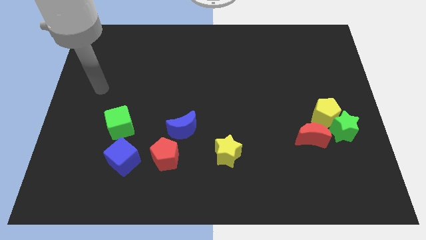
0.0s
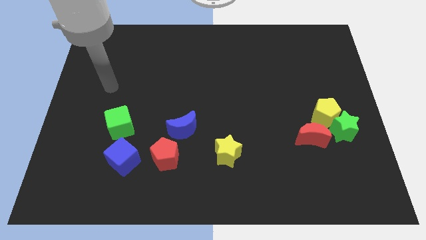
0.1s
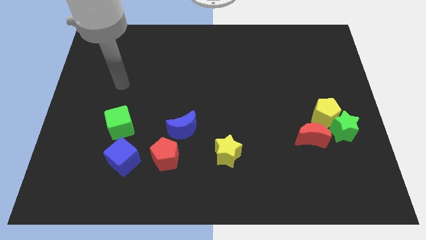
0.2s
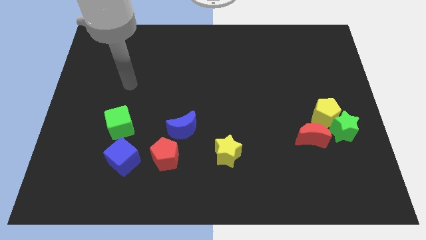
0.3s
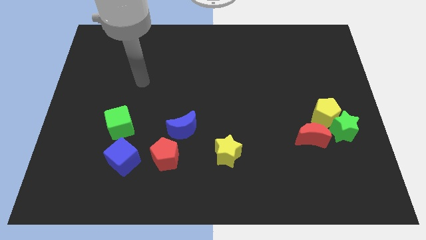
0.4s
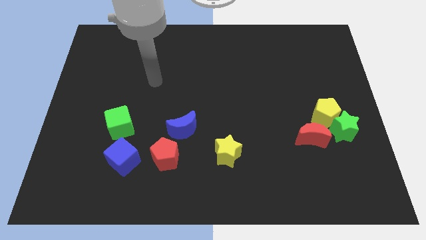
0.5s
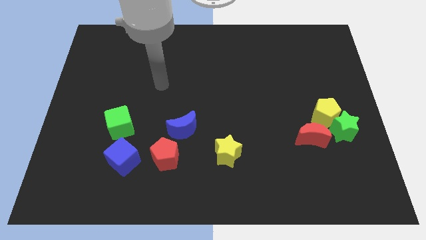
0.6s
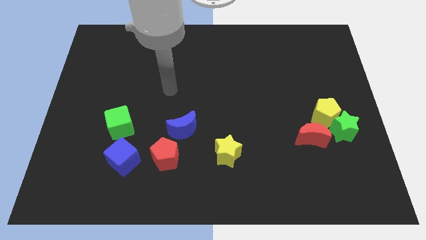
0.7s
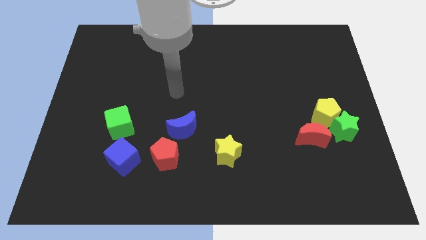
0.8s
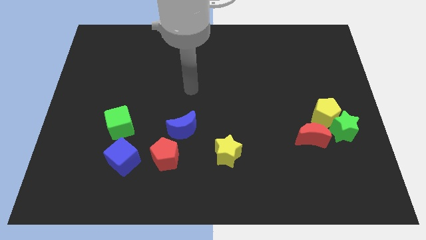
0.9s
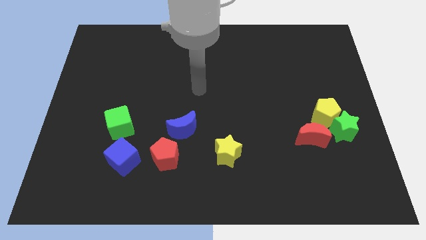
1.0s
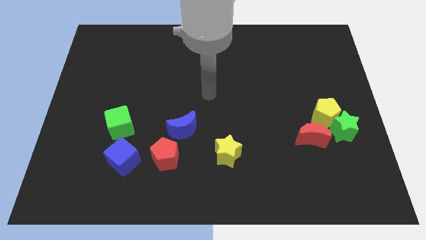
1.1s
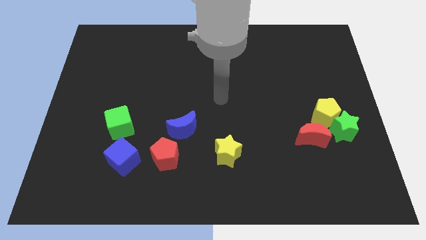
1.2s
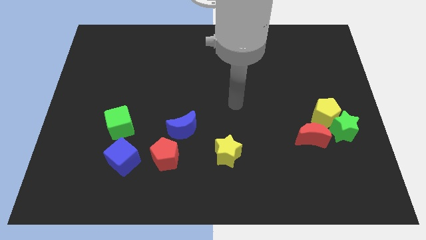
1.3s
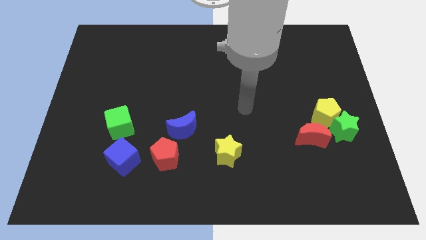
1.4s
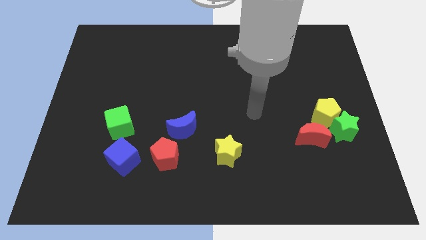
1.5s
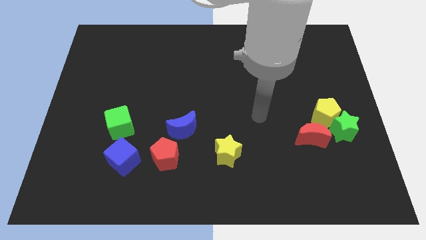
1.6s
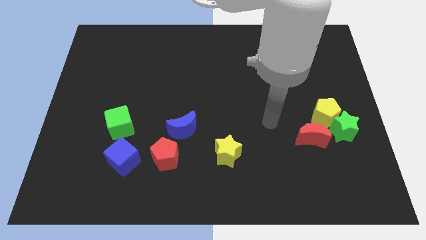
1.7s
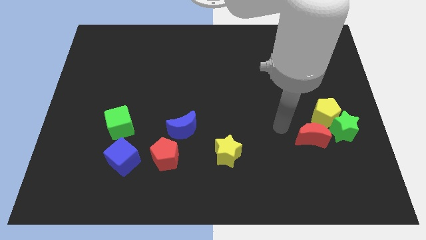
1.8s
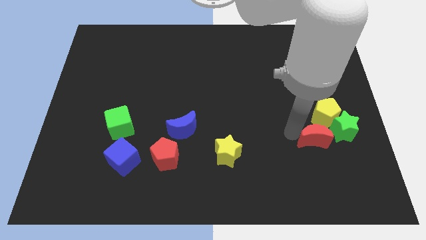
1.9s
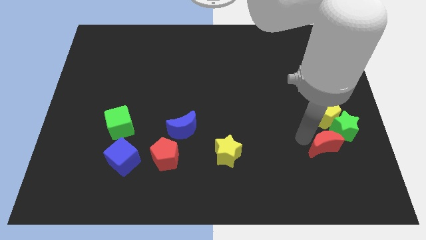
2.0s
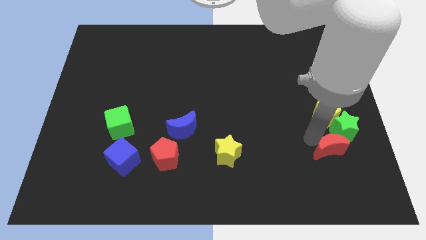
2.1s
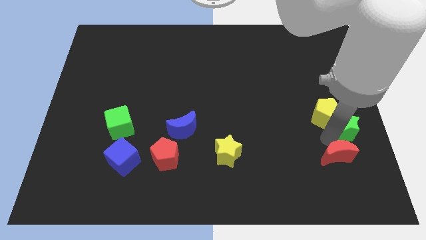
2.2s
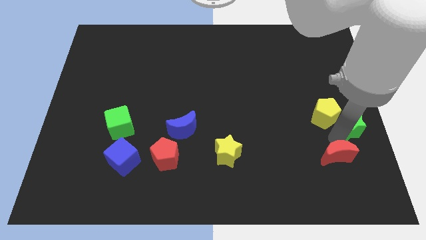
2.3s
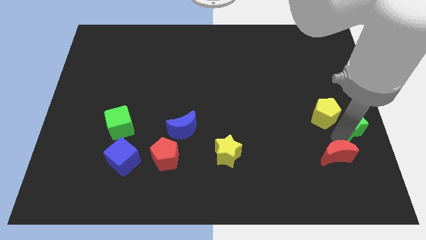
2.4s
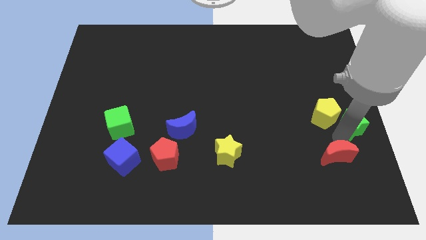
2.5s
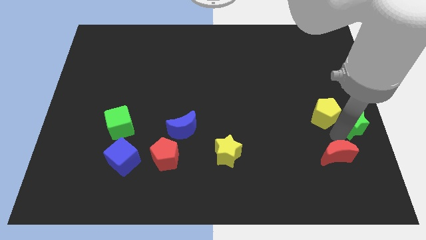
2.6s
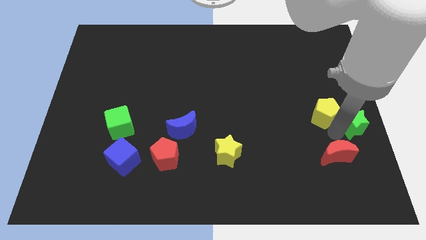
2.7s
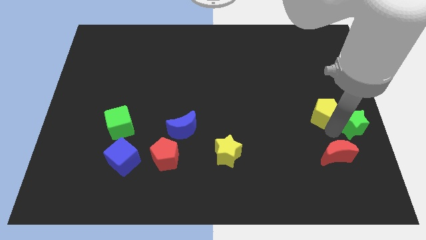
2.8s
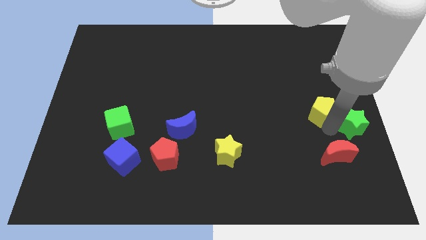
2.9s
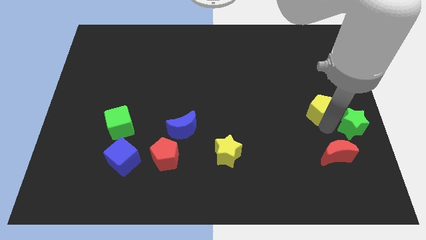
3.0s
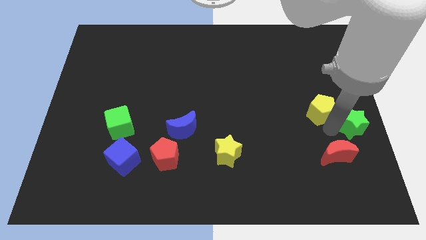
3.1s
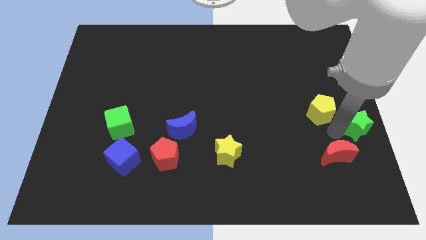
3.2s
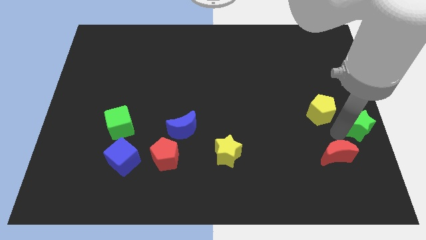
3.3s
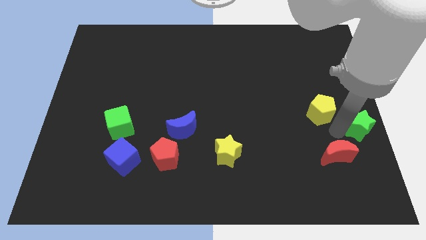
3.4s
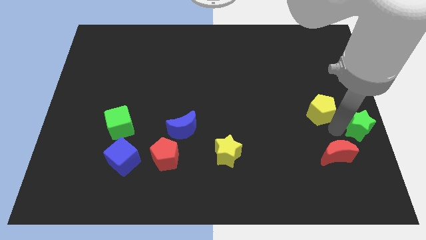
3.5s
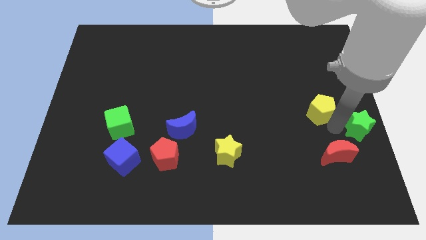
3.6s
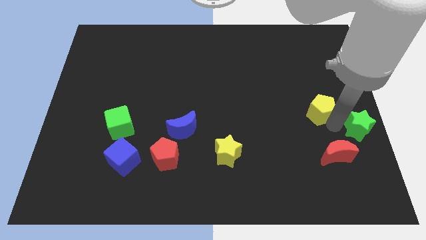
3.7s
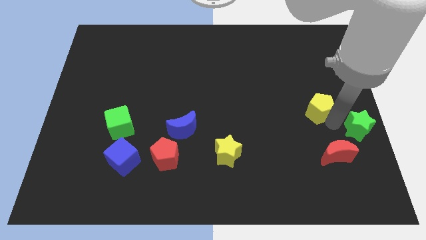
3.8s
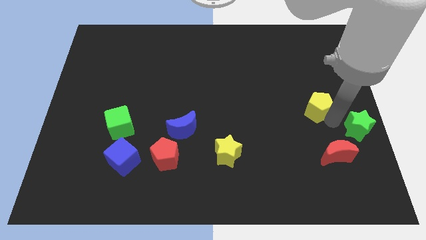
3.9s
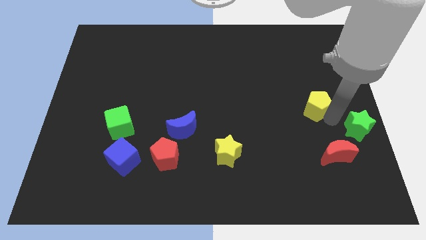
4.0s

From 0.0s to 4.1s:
move the yellow pentagon away from the green star and red moon

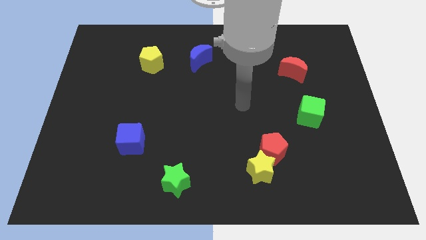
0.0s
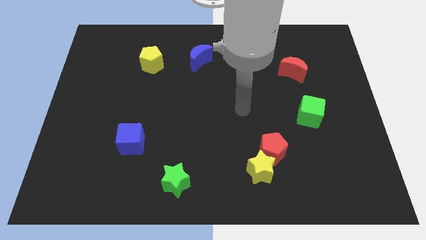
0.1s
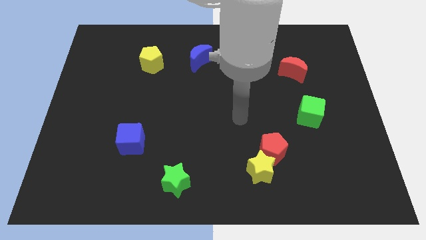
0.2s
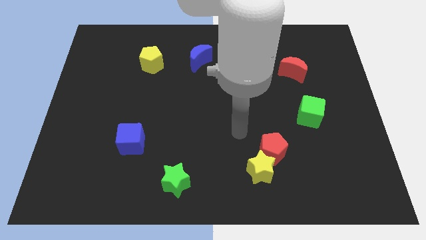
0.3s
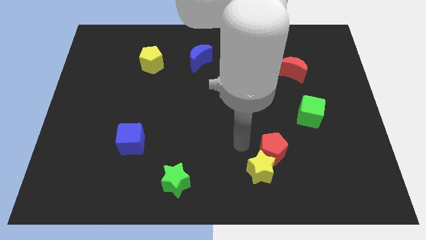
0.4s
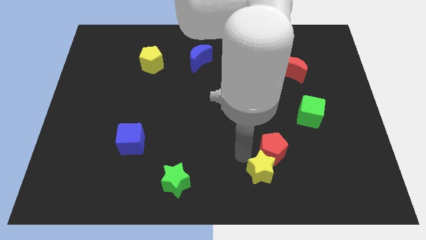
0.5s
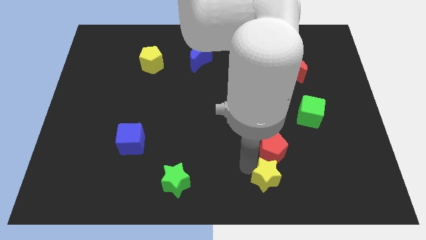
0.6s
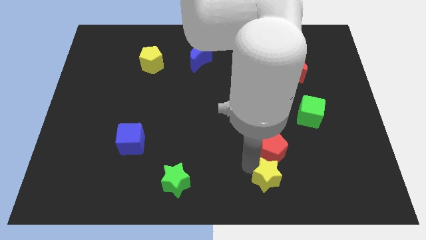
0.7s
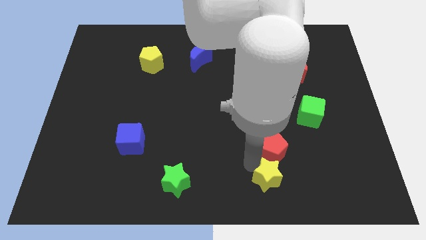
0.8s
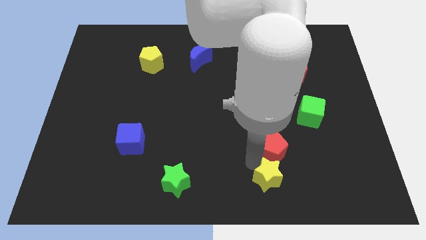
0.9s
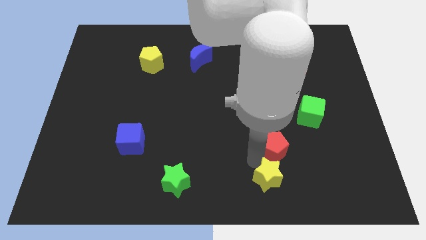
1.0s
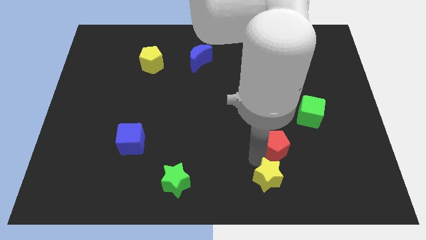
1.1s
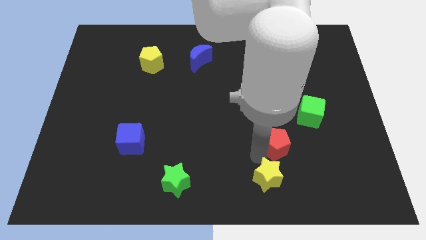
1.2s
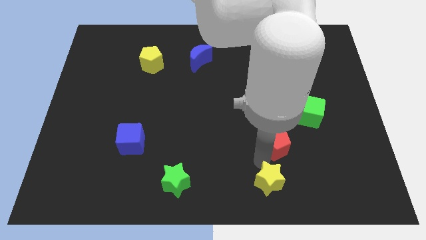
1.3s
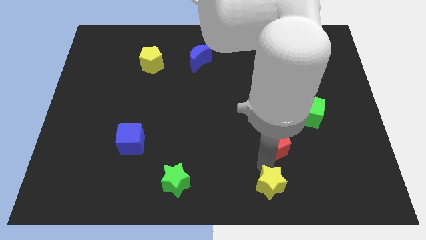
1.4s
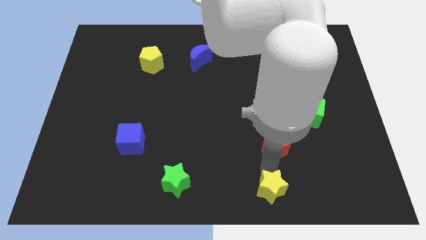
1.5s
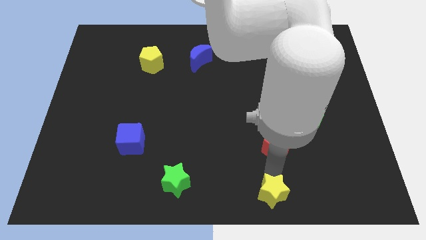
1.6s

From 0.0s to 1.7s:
pull the red pentagon apart from the yellow star

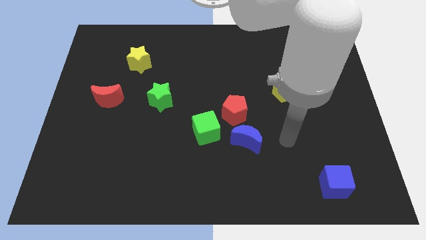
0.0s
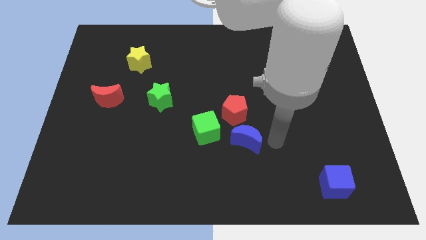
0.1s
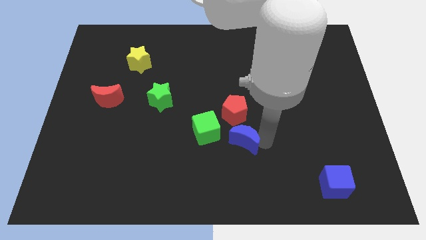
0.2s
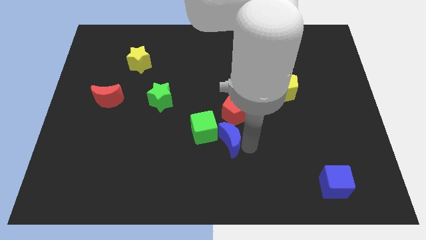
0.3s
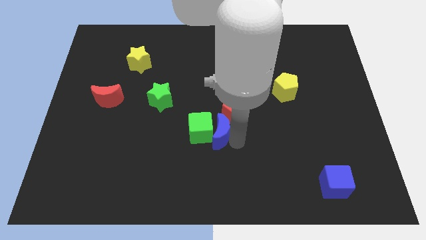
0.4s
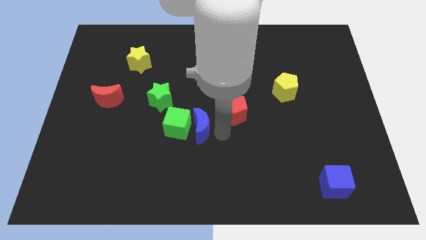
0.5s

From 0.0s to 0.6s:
move the red pentagon away from the blue moon and green cube

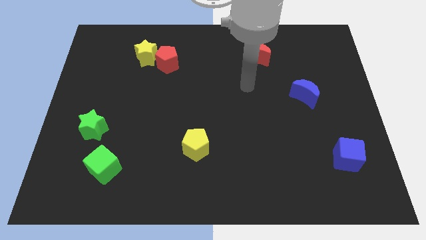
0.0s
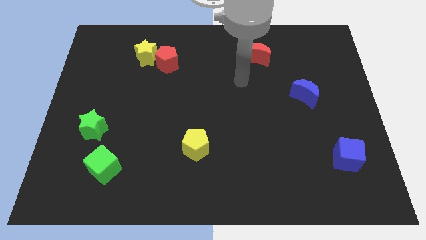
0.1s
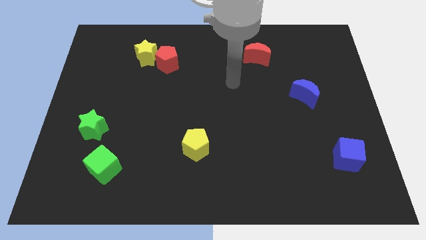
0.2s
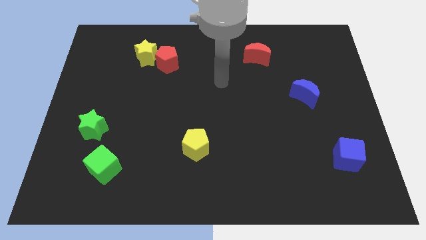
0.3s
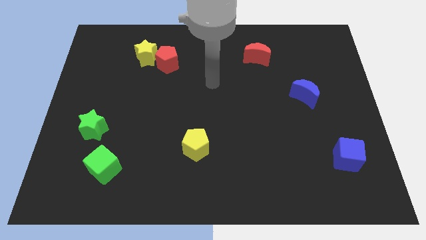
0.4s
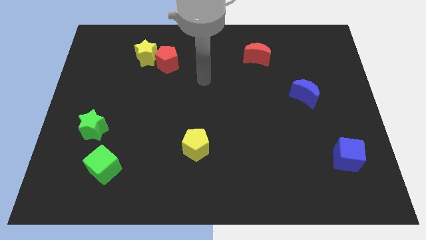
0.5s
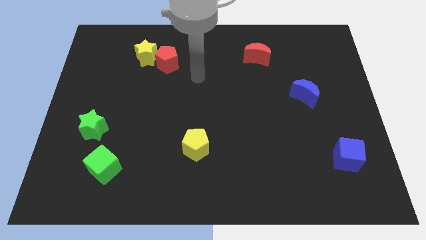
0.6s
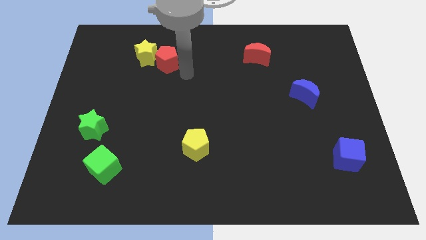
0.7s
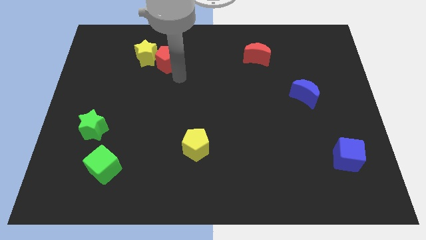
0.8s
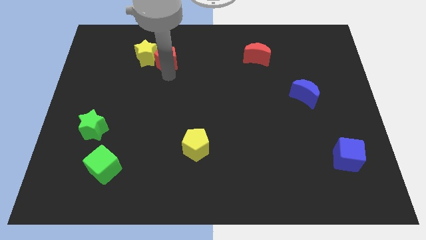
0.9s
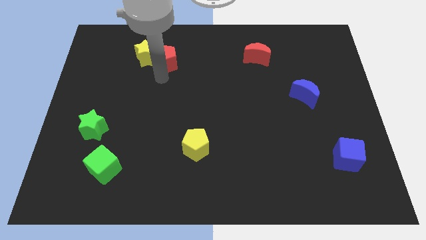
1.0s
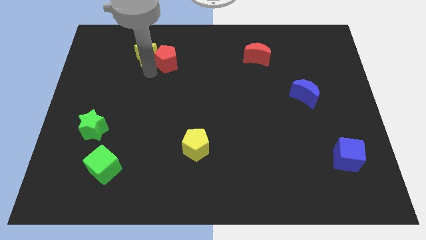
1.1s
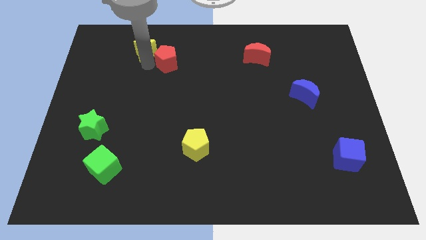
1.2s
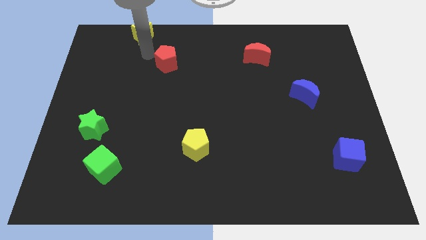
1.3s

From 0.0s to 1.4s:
separate the red pentagon from the yellow star

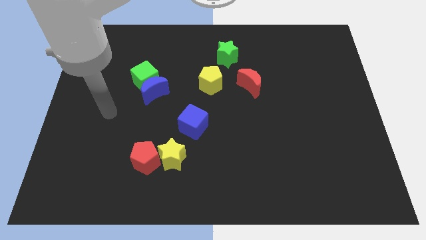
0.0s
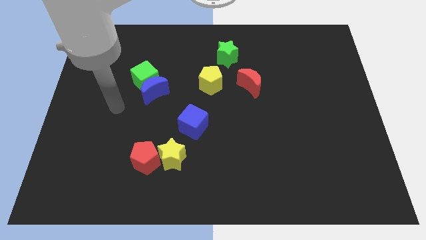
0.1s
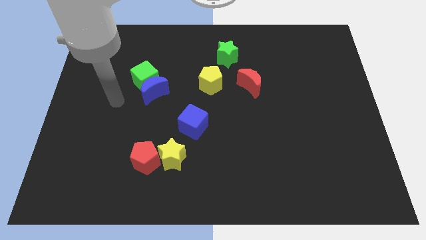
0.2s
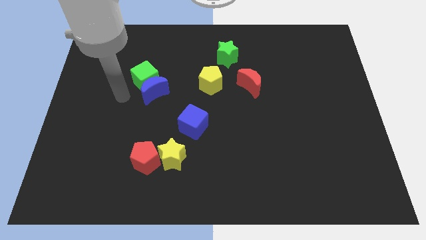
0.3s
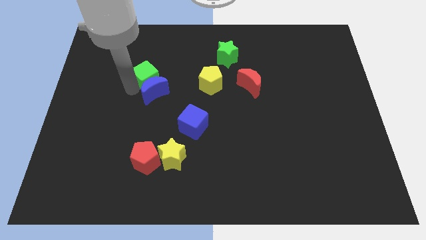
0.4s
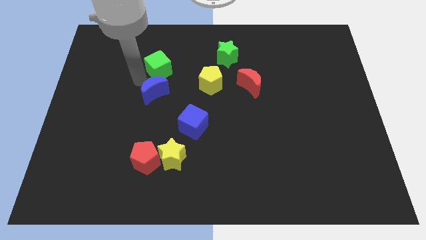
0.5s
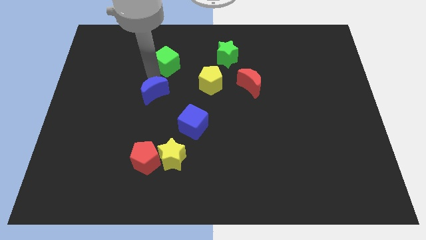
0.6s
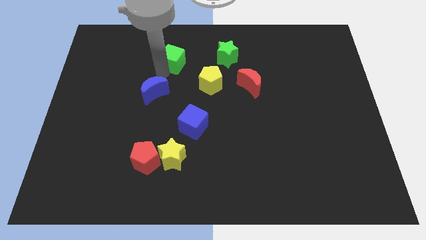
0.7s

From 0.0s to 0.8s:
move the blue moon away from the green cube

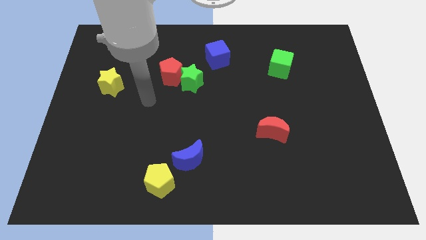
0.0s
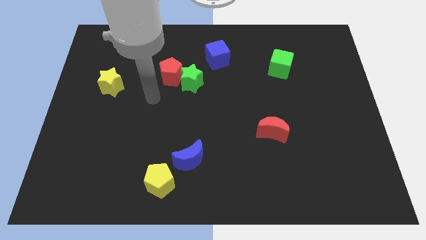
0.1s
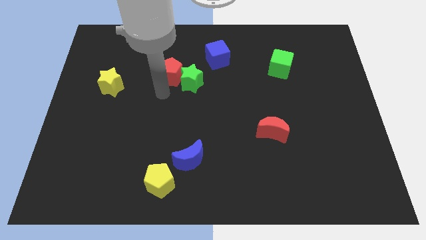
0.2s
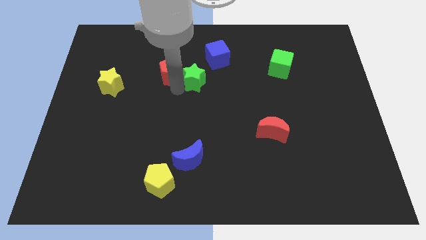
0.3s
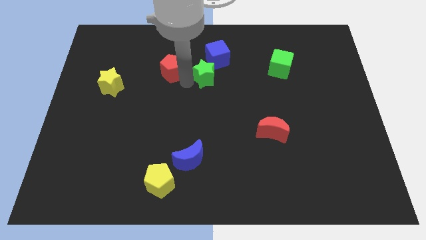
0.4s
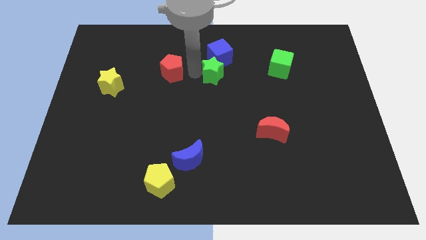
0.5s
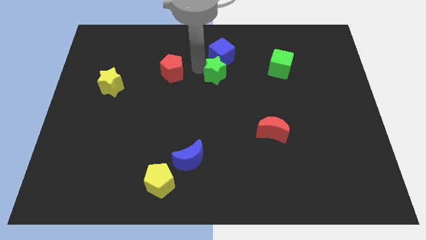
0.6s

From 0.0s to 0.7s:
pull the red pentagon apart from the green star
